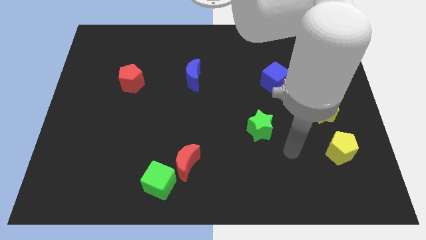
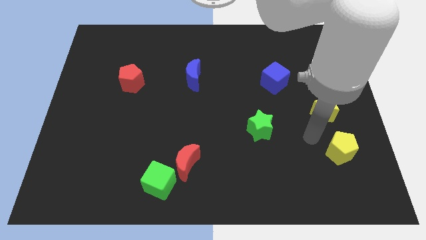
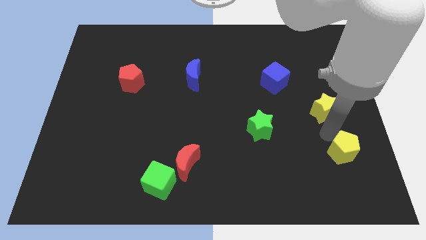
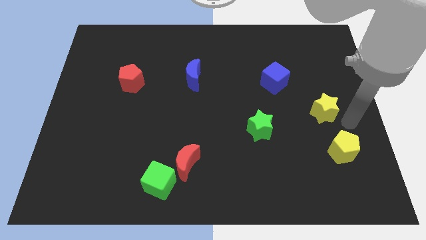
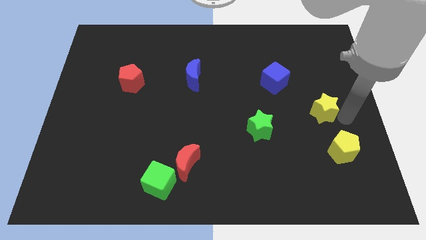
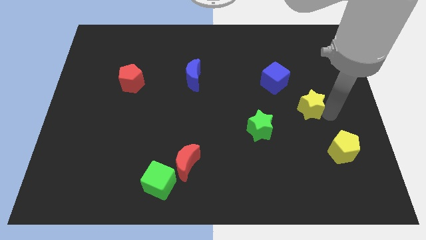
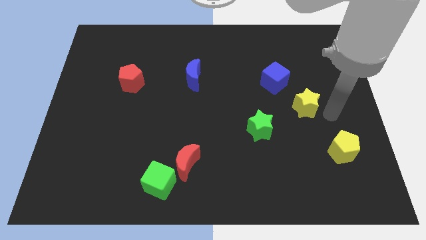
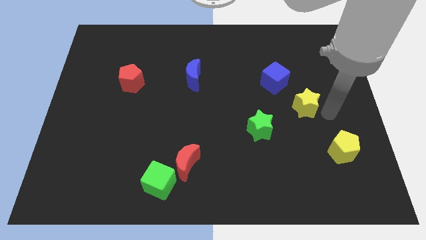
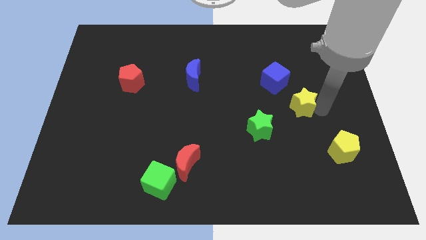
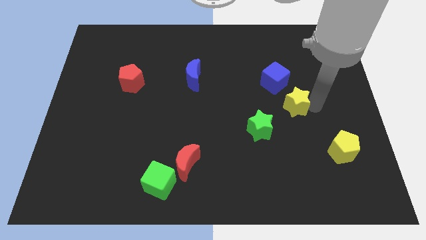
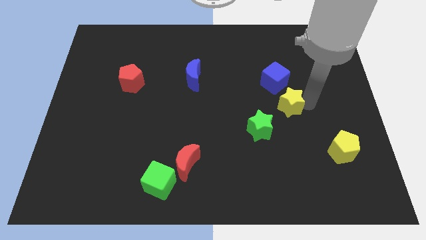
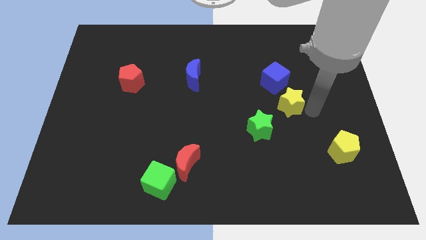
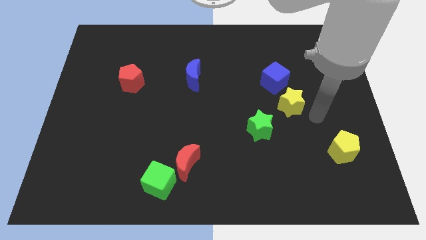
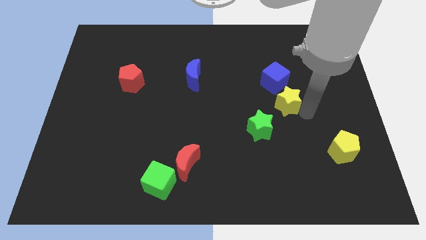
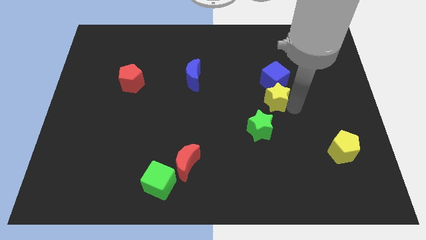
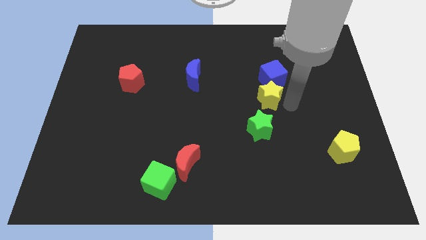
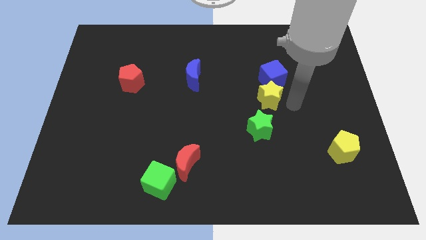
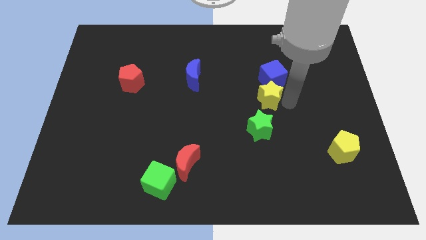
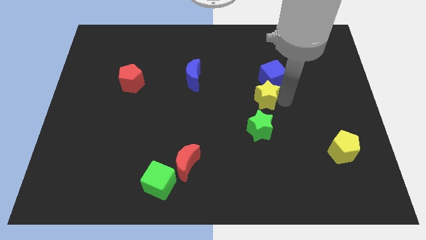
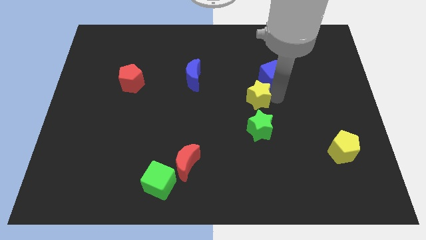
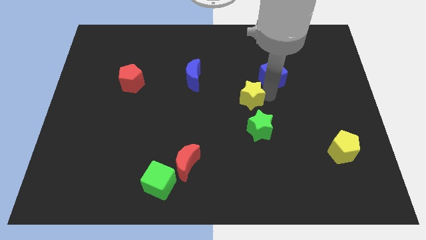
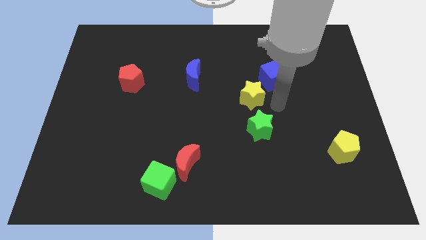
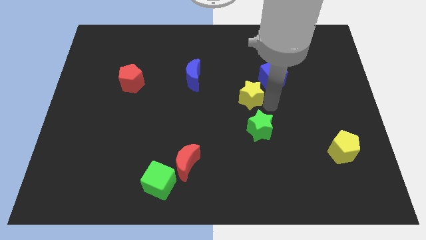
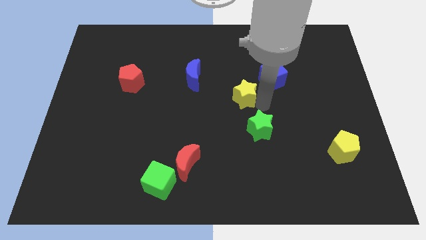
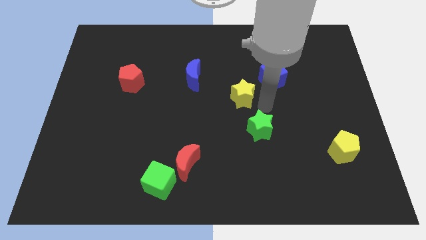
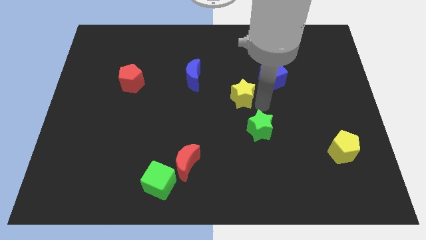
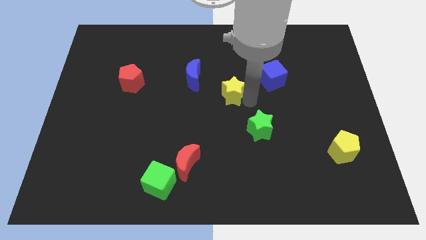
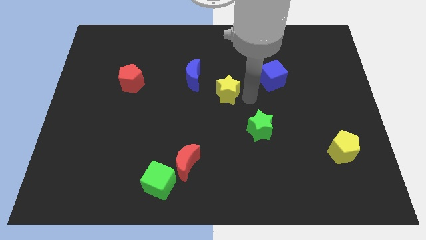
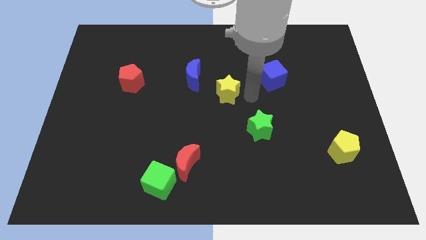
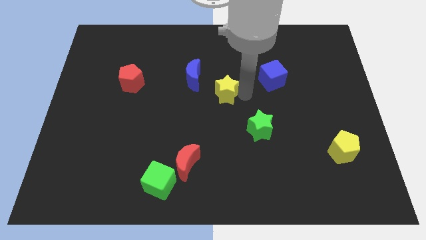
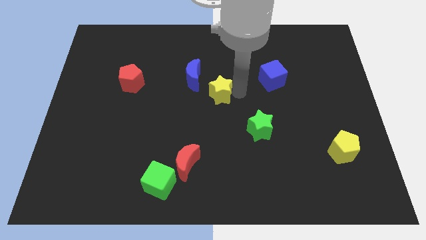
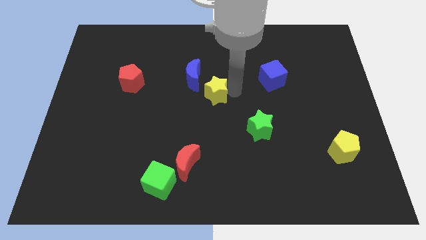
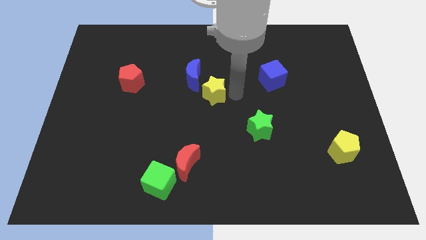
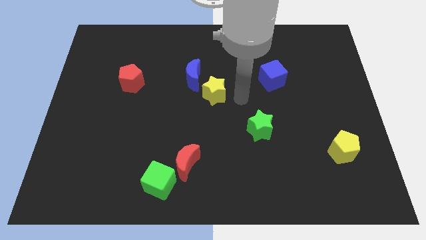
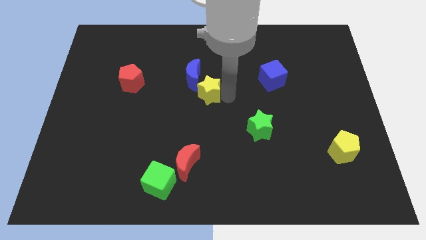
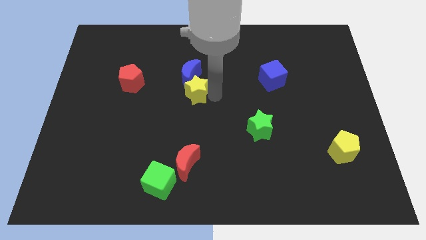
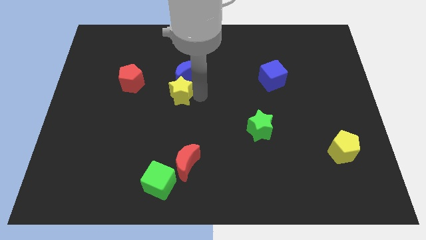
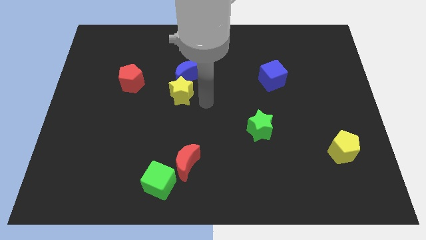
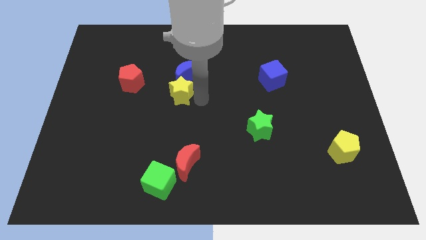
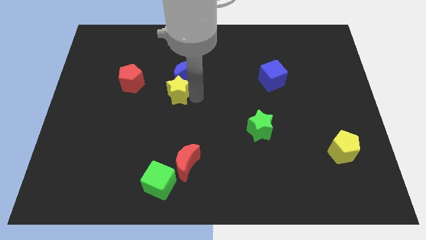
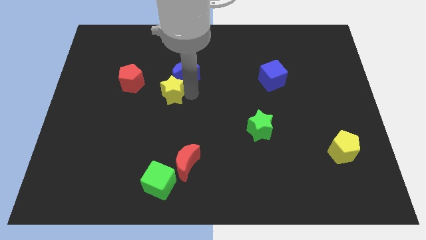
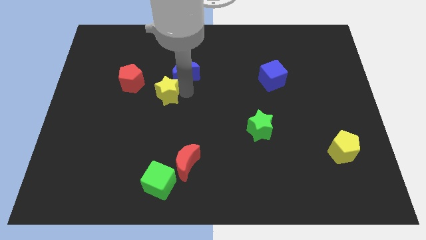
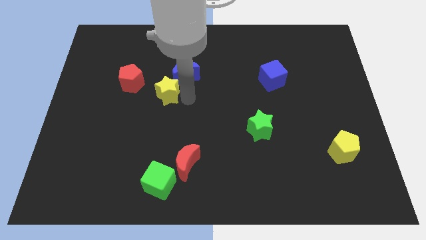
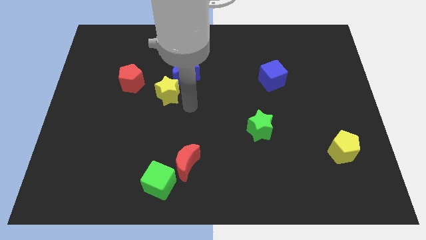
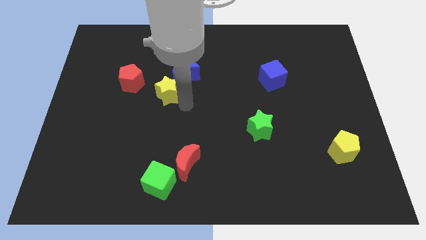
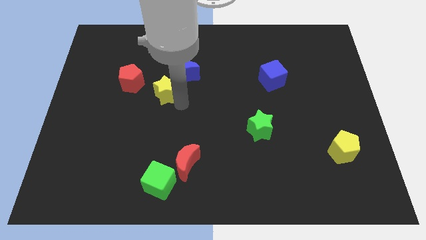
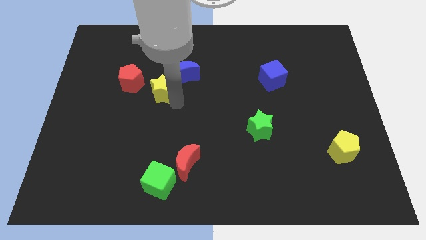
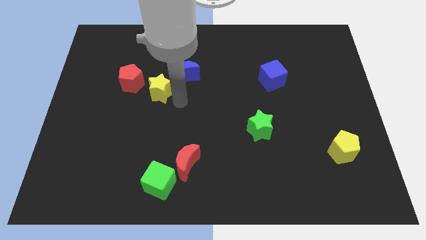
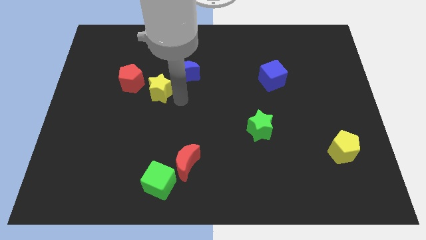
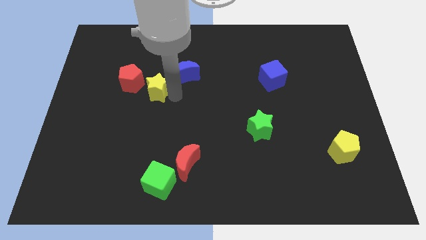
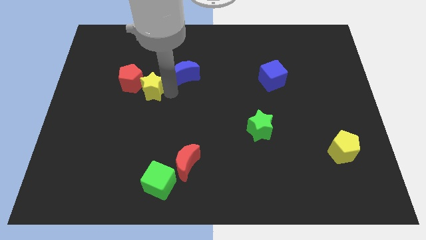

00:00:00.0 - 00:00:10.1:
slide the yellow star next to the red pentagon

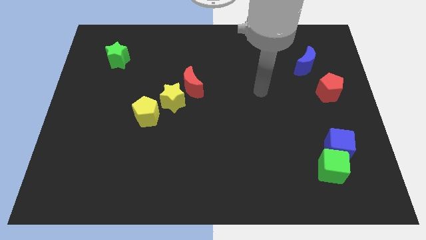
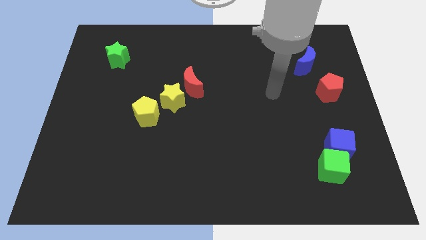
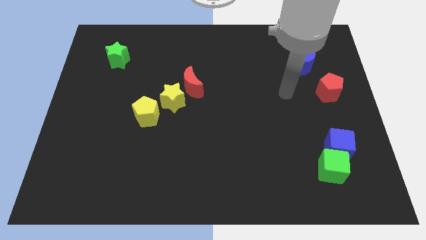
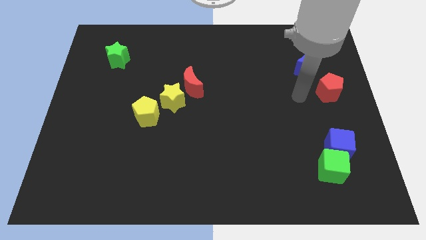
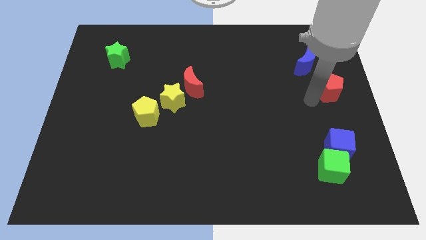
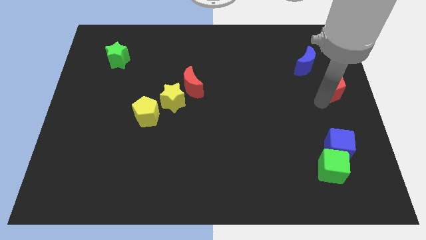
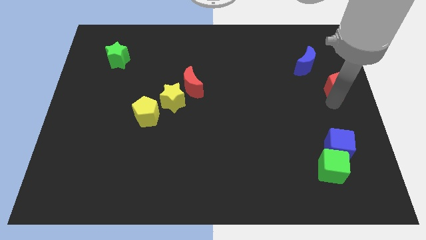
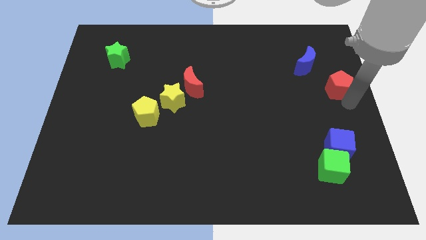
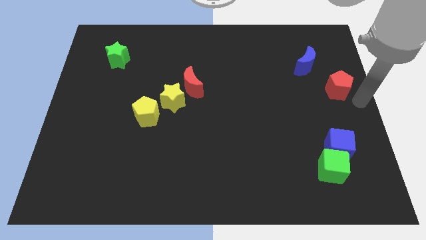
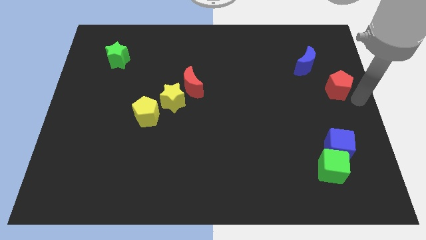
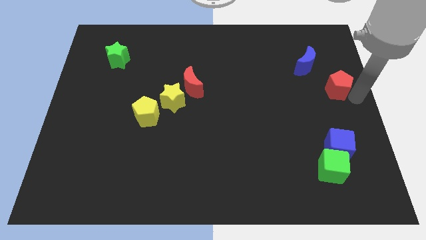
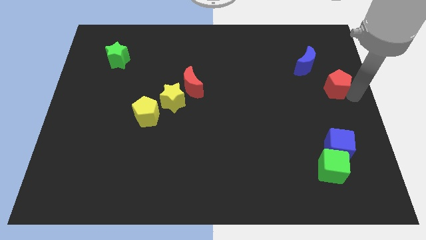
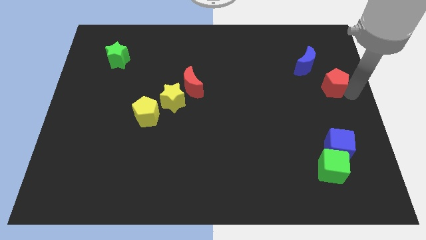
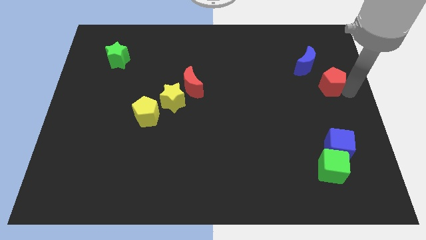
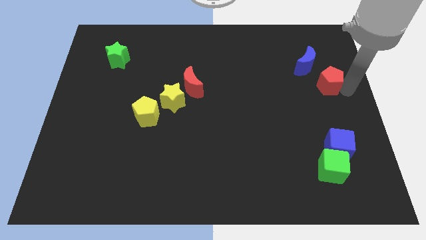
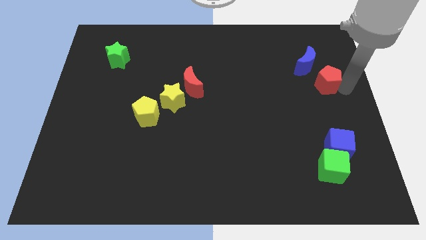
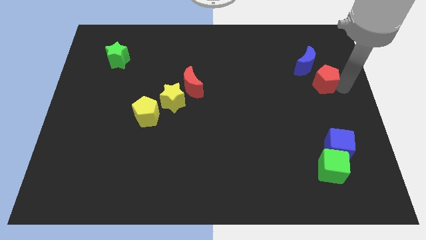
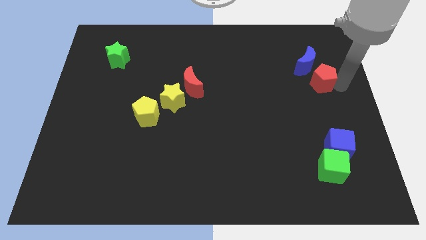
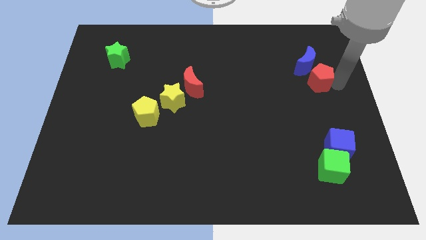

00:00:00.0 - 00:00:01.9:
put the red pentagon to the blue moon
